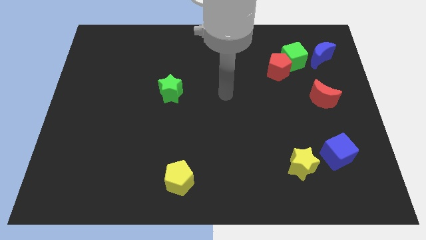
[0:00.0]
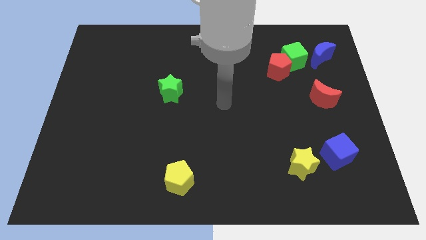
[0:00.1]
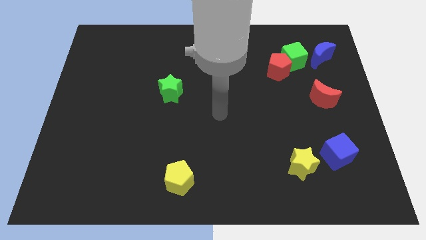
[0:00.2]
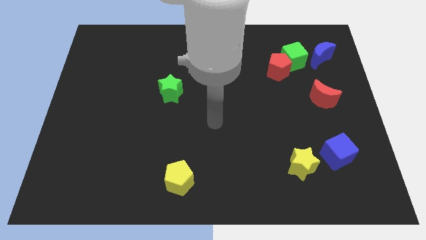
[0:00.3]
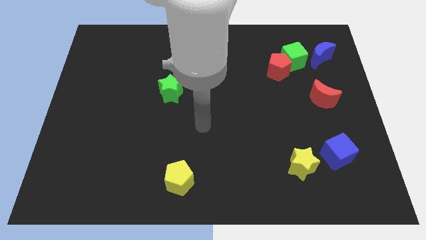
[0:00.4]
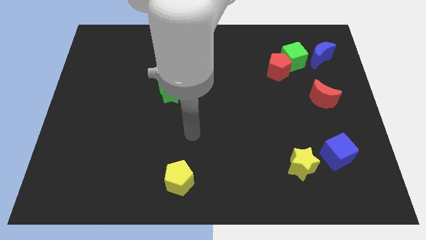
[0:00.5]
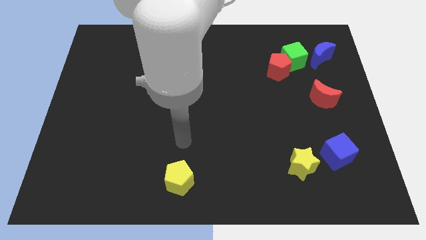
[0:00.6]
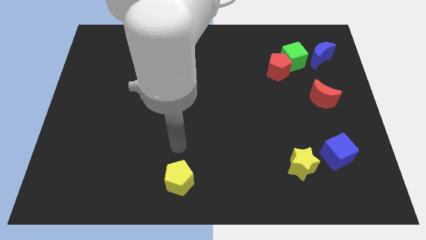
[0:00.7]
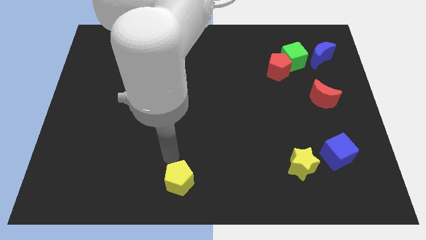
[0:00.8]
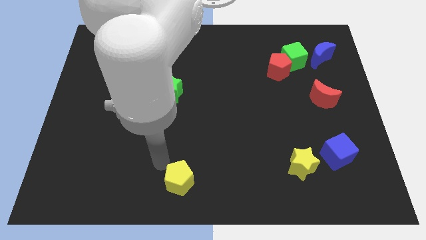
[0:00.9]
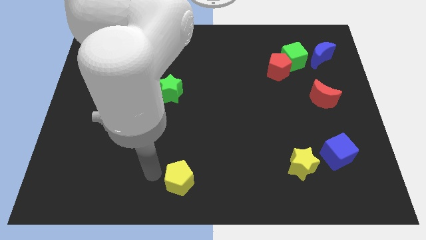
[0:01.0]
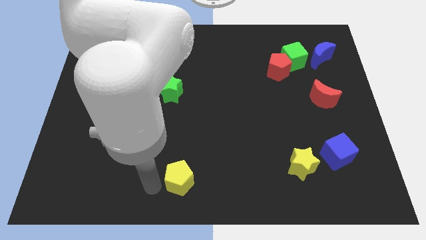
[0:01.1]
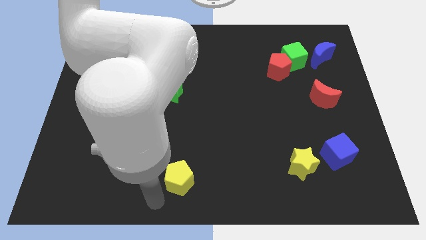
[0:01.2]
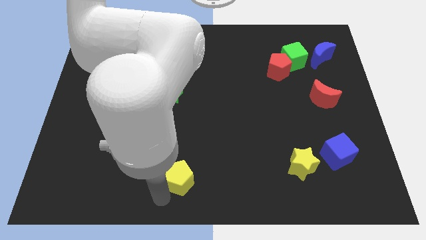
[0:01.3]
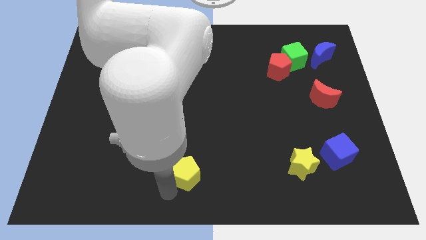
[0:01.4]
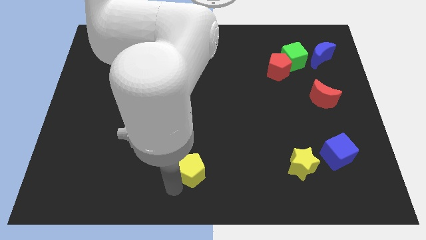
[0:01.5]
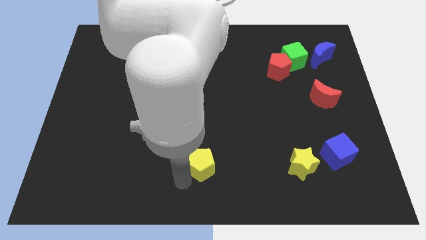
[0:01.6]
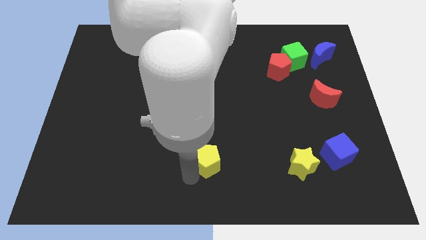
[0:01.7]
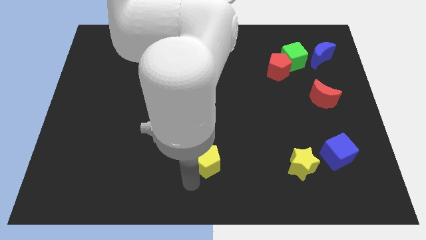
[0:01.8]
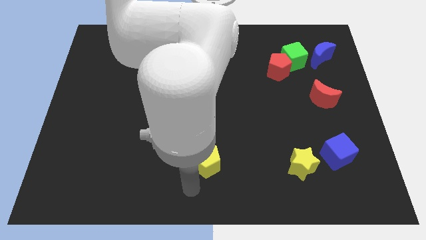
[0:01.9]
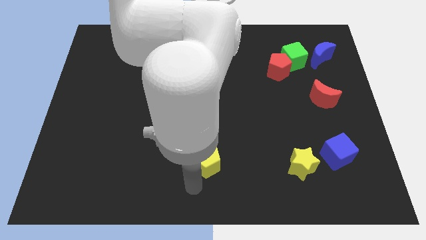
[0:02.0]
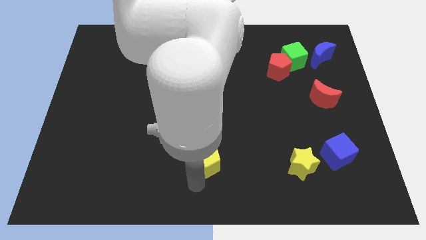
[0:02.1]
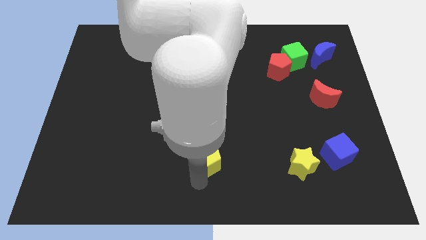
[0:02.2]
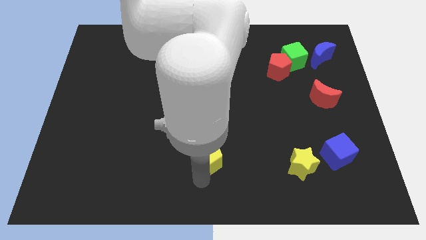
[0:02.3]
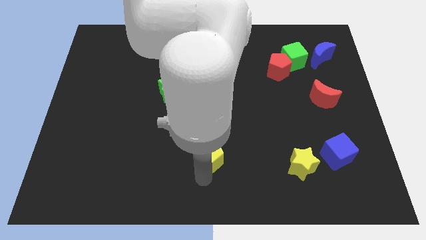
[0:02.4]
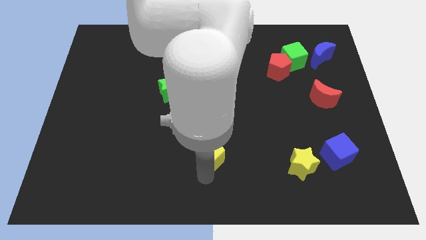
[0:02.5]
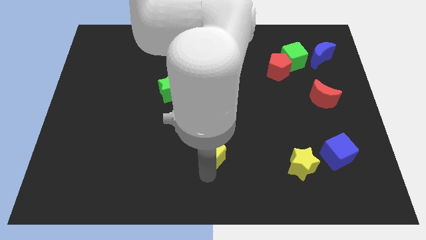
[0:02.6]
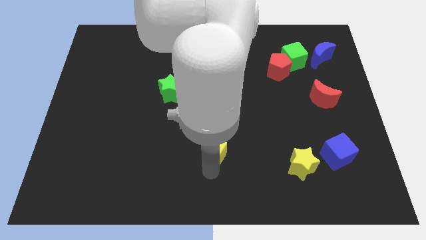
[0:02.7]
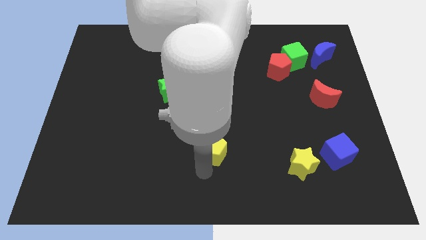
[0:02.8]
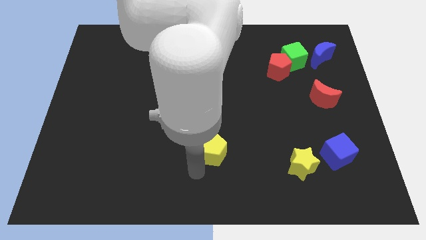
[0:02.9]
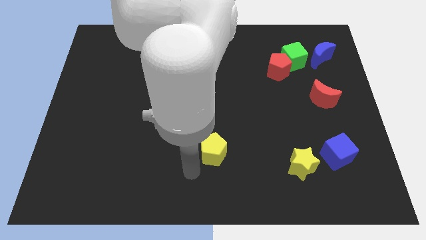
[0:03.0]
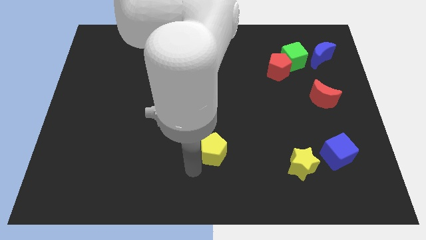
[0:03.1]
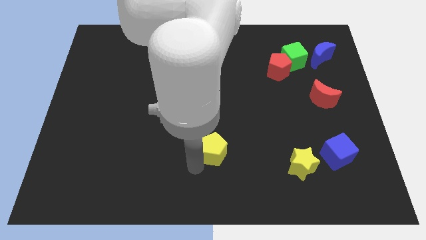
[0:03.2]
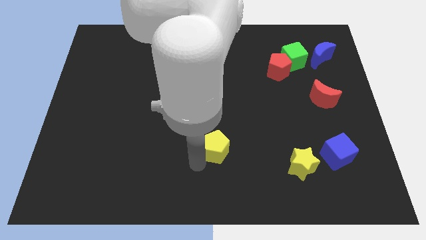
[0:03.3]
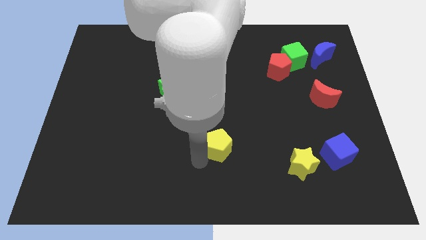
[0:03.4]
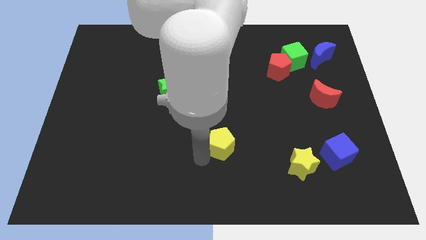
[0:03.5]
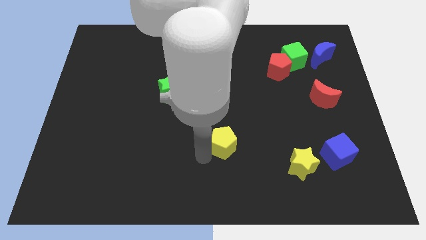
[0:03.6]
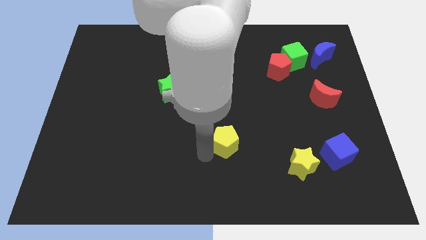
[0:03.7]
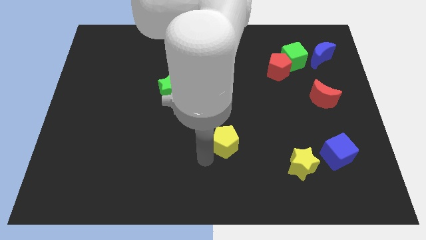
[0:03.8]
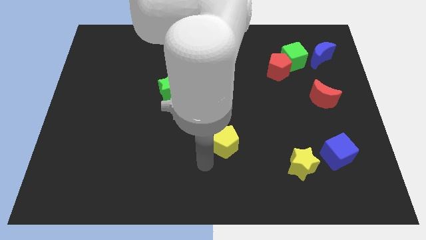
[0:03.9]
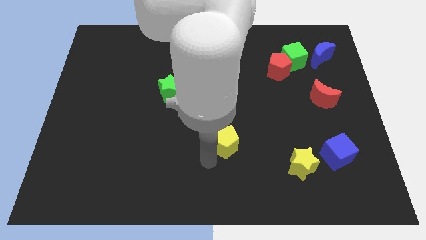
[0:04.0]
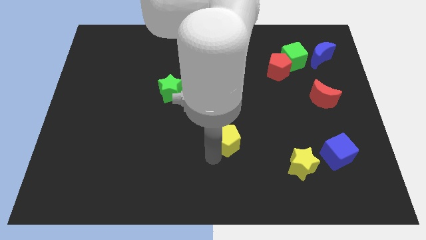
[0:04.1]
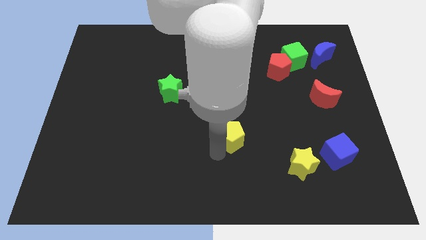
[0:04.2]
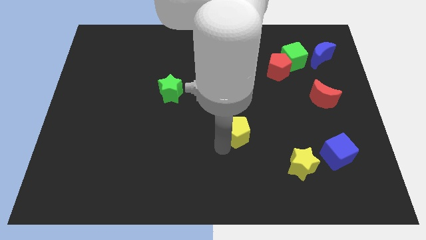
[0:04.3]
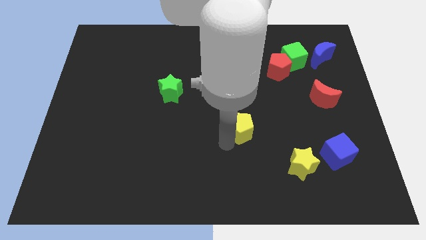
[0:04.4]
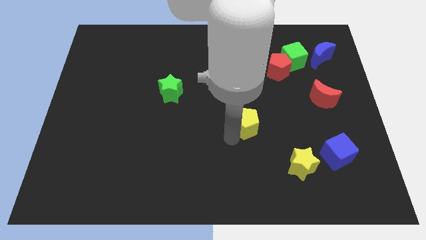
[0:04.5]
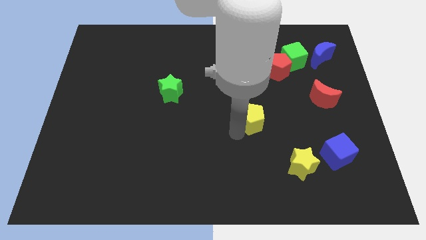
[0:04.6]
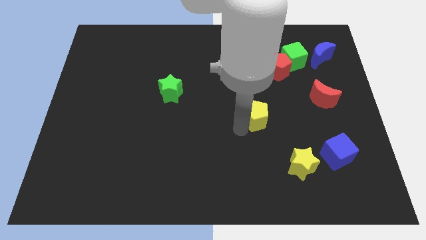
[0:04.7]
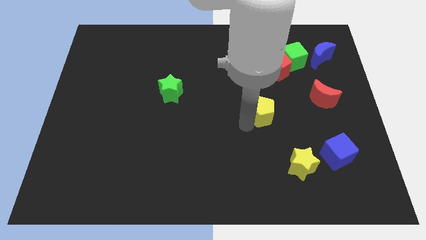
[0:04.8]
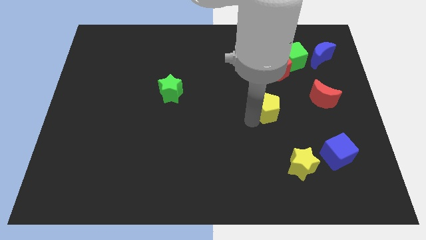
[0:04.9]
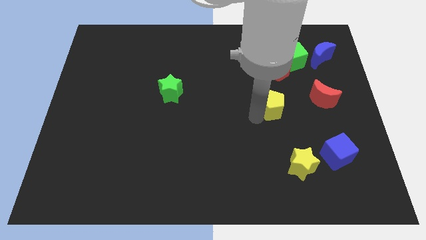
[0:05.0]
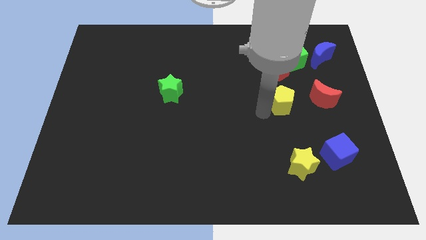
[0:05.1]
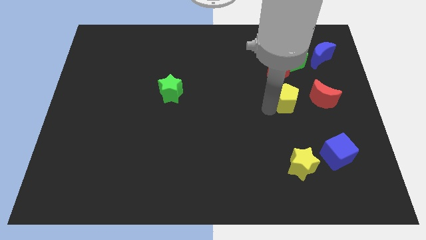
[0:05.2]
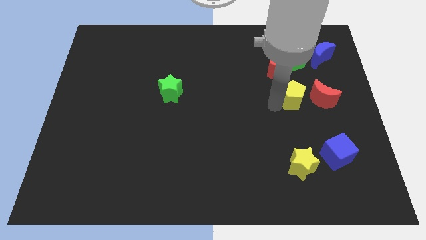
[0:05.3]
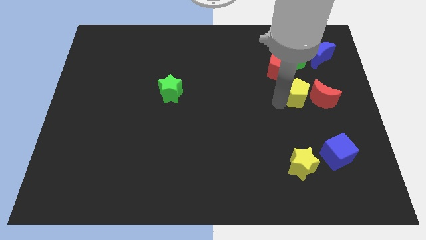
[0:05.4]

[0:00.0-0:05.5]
put the yellow pentagon next to the red moon

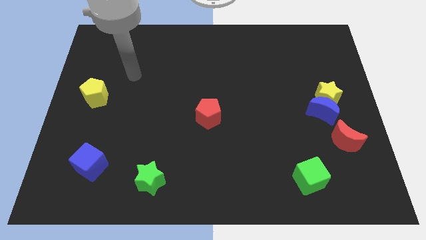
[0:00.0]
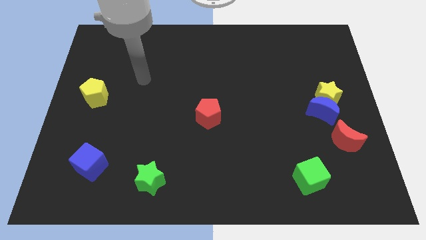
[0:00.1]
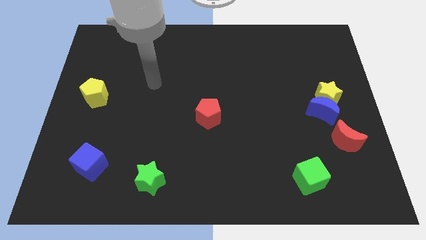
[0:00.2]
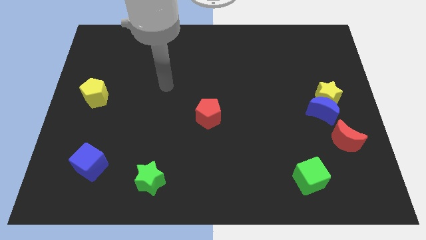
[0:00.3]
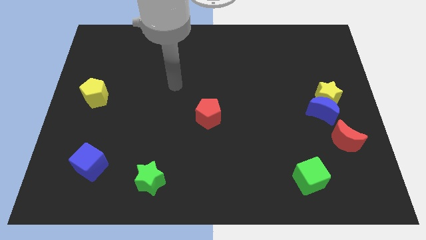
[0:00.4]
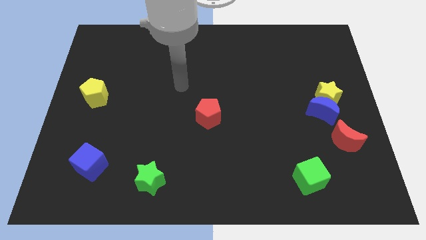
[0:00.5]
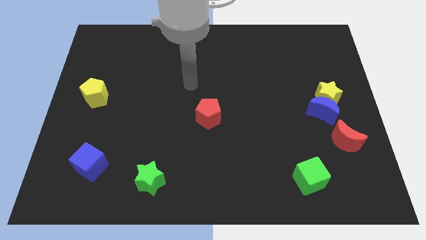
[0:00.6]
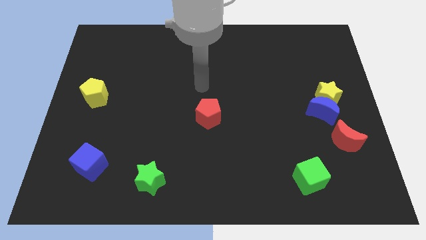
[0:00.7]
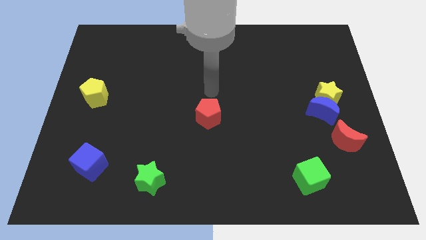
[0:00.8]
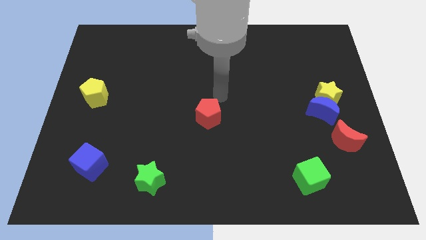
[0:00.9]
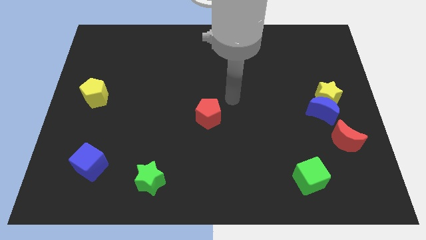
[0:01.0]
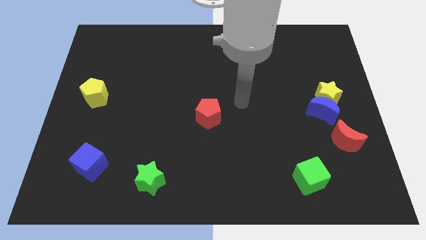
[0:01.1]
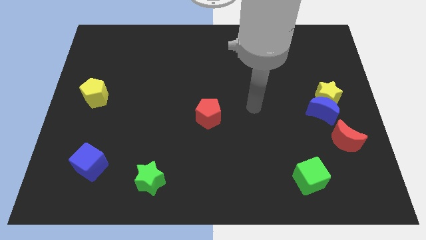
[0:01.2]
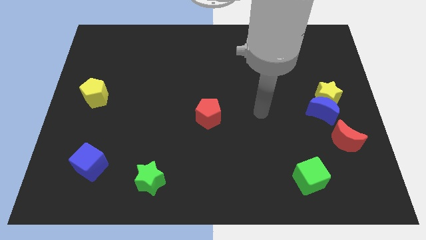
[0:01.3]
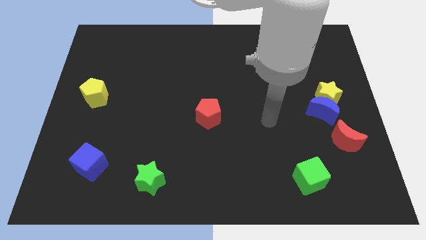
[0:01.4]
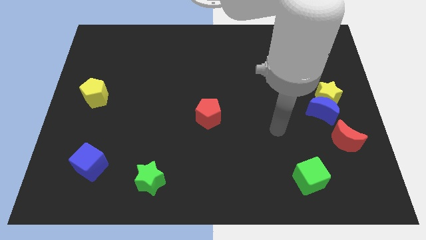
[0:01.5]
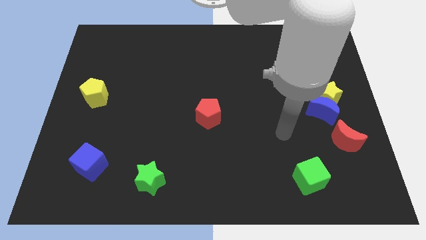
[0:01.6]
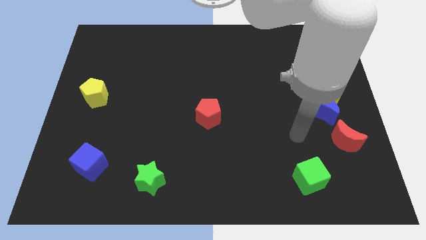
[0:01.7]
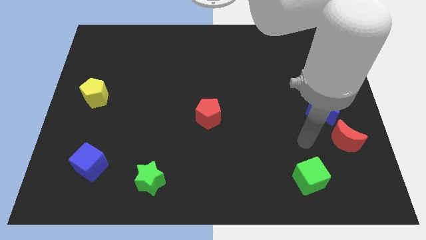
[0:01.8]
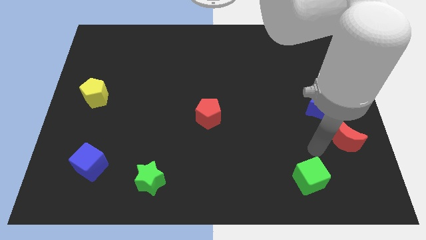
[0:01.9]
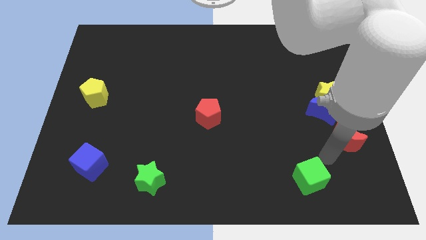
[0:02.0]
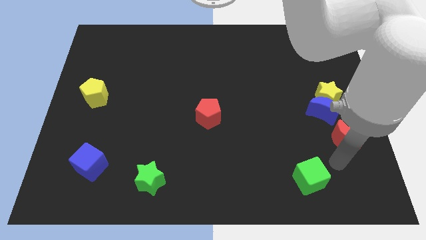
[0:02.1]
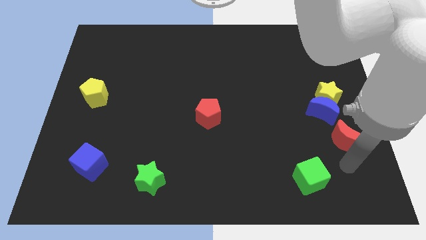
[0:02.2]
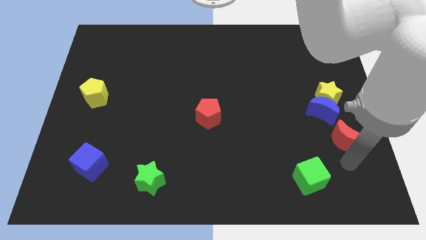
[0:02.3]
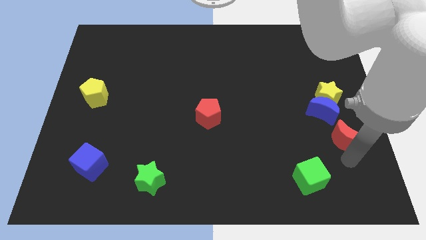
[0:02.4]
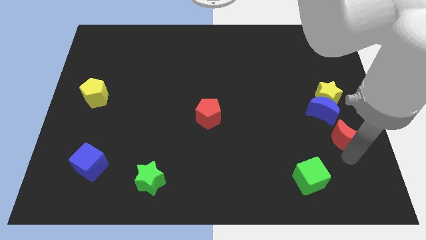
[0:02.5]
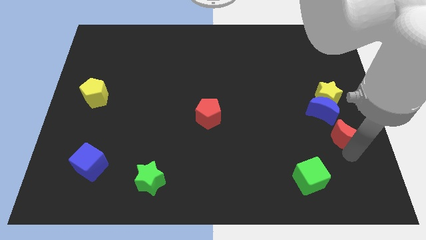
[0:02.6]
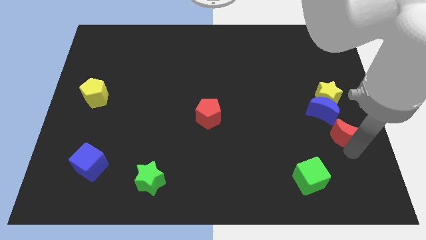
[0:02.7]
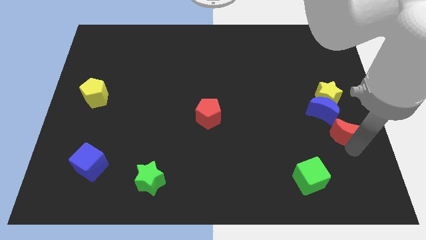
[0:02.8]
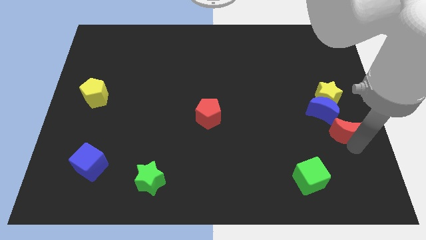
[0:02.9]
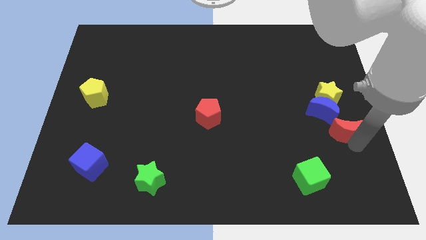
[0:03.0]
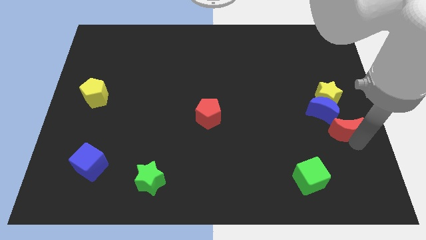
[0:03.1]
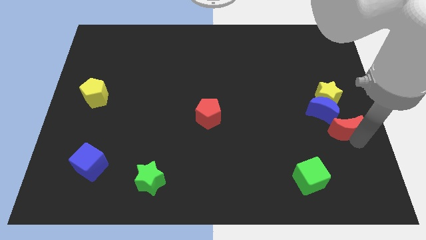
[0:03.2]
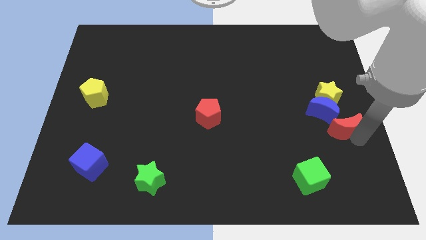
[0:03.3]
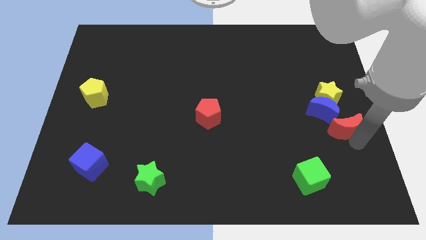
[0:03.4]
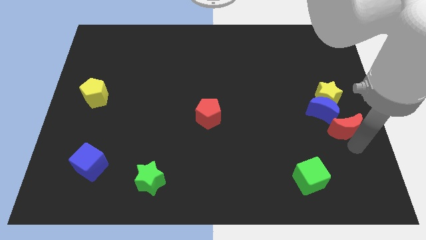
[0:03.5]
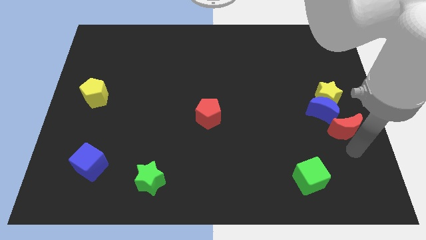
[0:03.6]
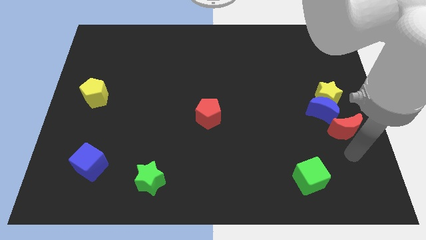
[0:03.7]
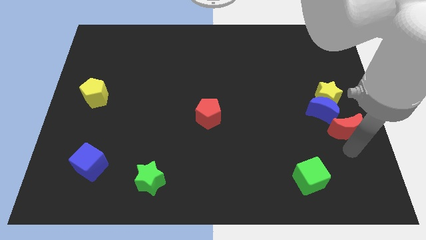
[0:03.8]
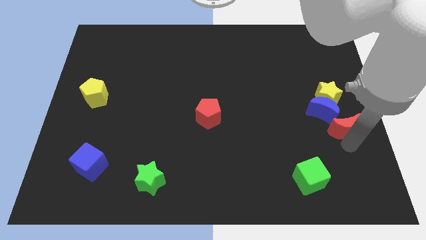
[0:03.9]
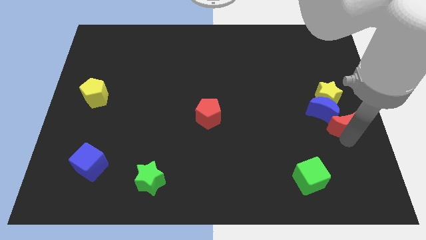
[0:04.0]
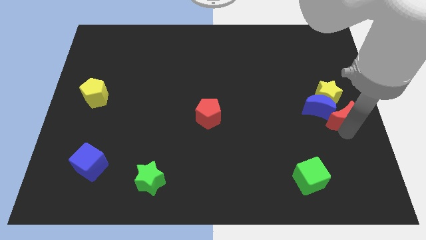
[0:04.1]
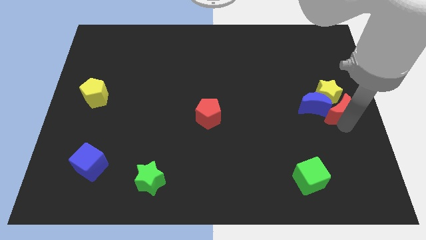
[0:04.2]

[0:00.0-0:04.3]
put the red moon towards the yellow star
